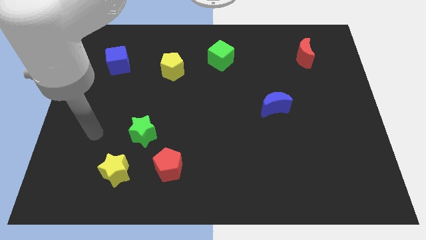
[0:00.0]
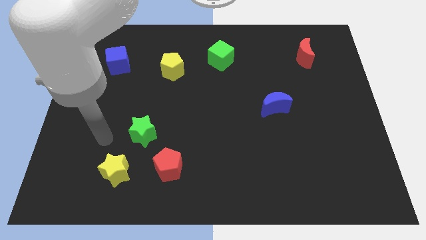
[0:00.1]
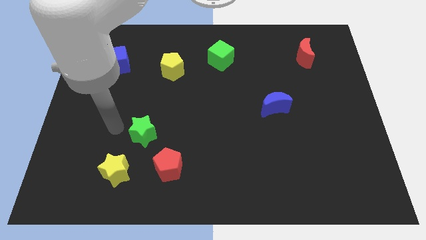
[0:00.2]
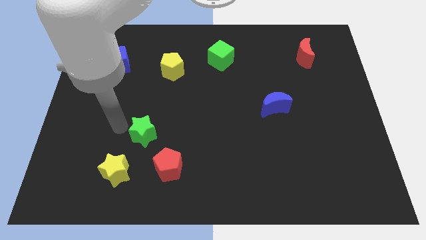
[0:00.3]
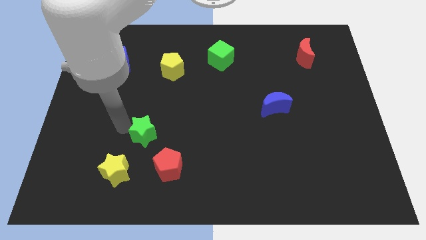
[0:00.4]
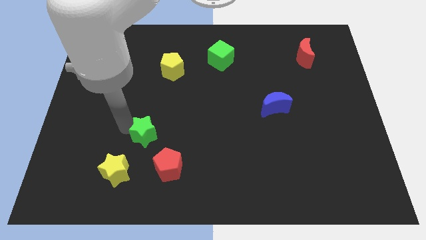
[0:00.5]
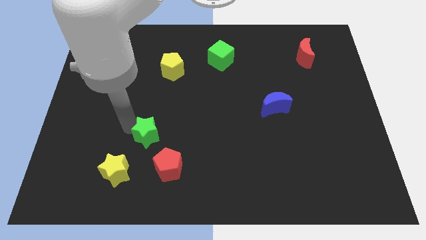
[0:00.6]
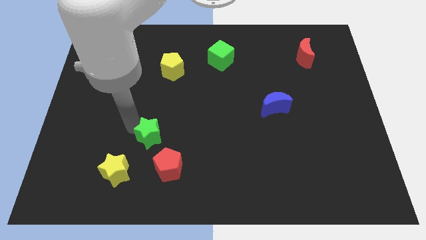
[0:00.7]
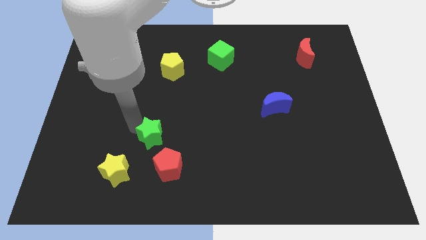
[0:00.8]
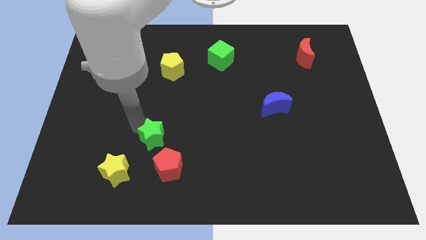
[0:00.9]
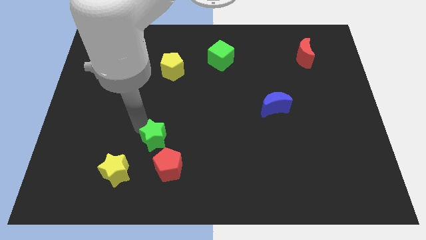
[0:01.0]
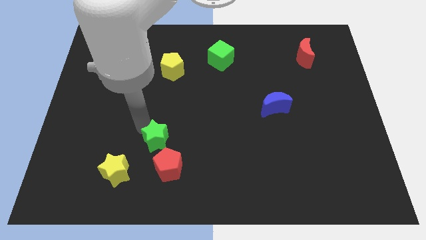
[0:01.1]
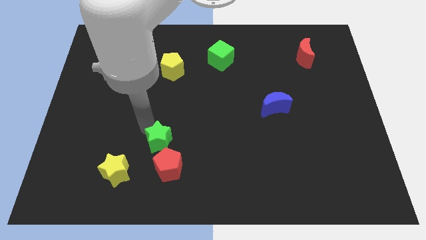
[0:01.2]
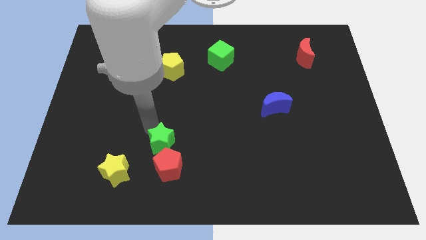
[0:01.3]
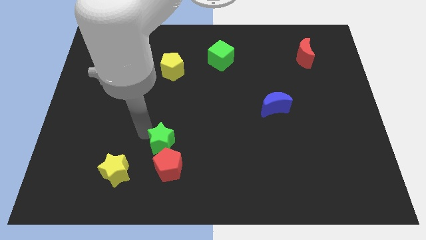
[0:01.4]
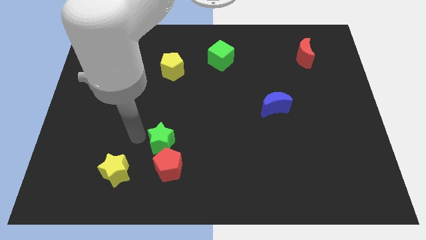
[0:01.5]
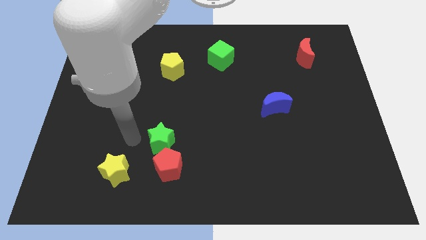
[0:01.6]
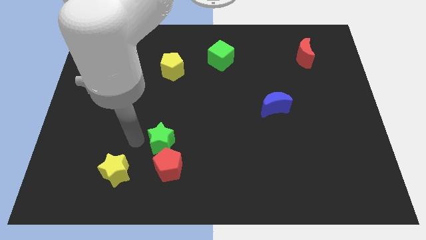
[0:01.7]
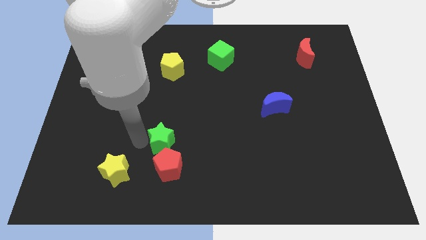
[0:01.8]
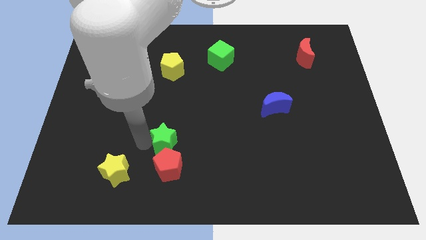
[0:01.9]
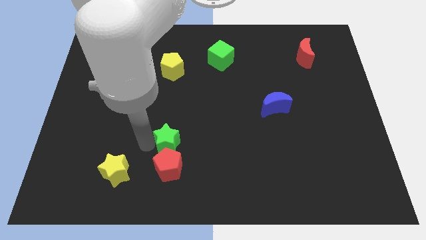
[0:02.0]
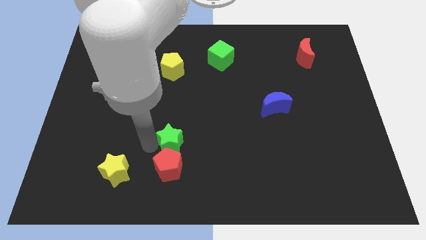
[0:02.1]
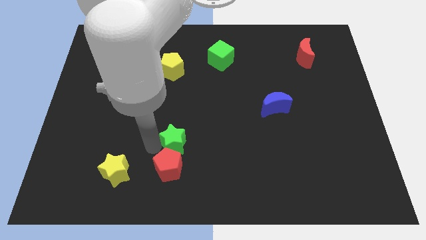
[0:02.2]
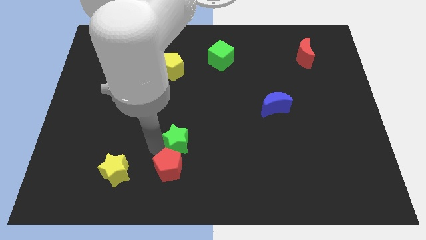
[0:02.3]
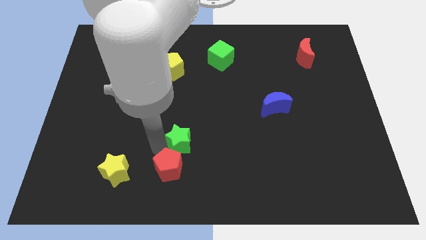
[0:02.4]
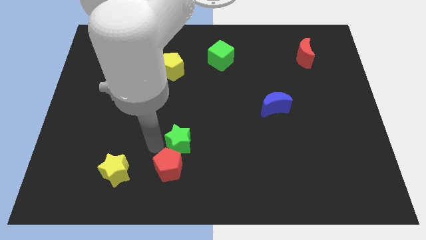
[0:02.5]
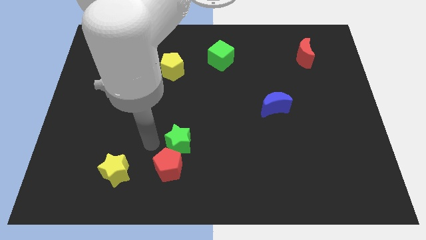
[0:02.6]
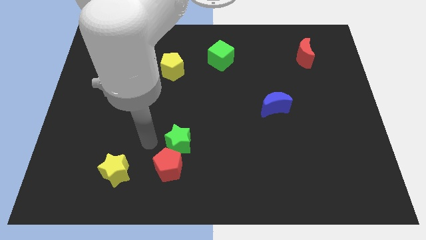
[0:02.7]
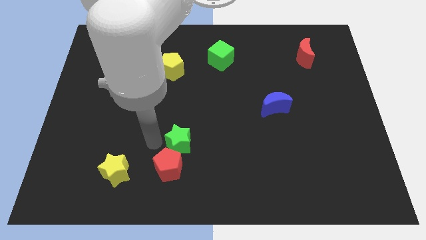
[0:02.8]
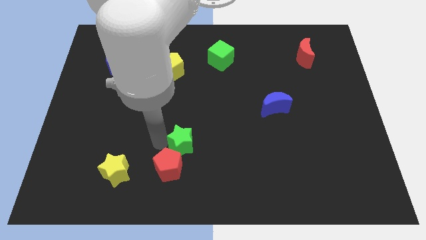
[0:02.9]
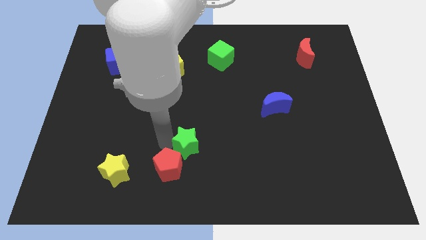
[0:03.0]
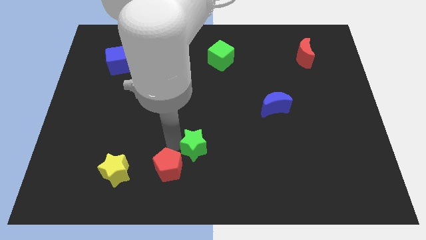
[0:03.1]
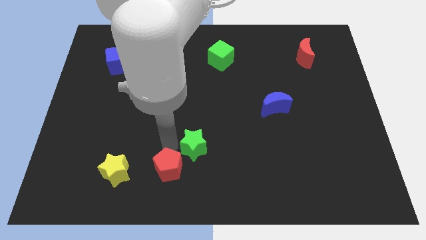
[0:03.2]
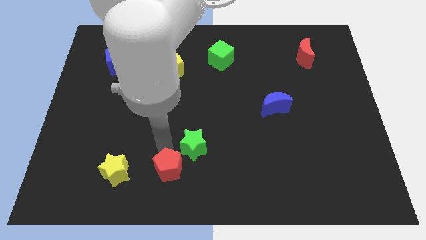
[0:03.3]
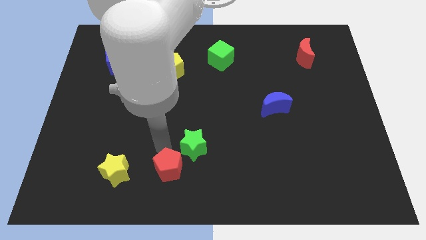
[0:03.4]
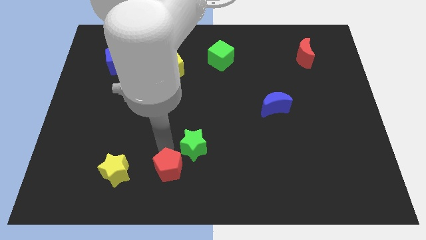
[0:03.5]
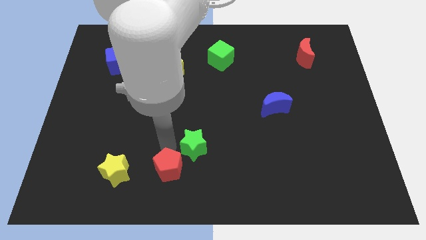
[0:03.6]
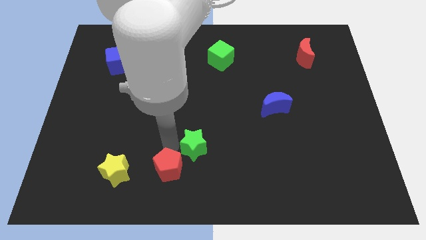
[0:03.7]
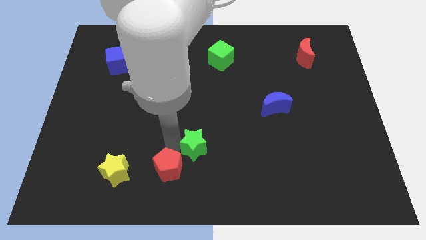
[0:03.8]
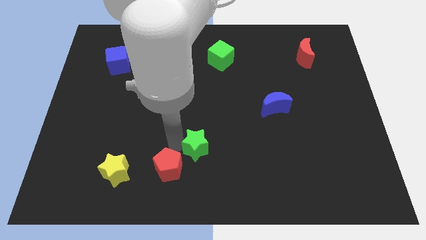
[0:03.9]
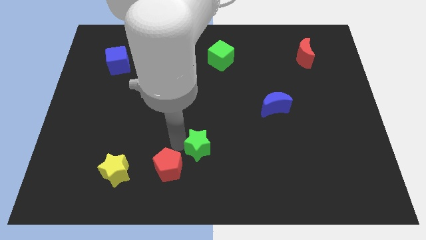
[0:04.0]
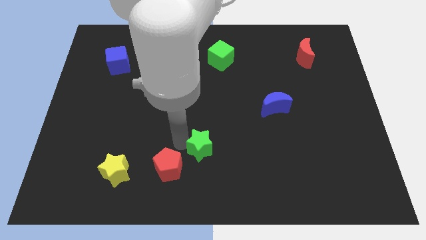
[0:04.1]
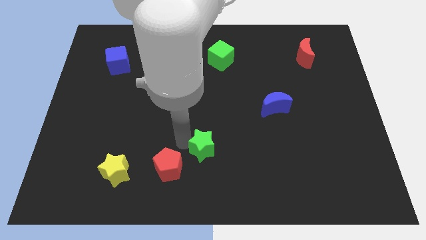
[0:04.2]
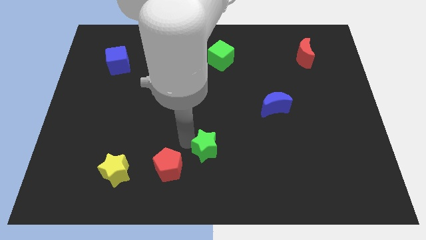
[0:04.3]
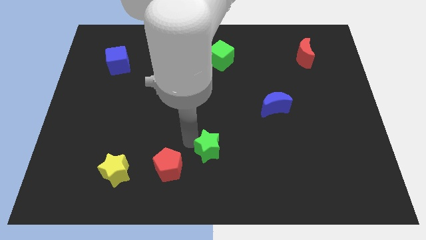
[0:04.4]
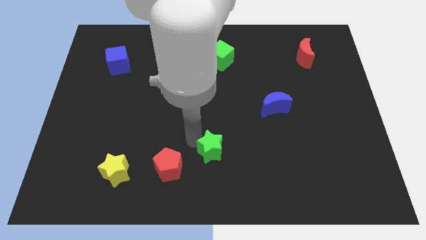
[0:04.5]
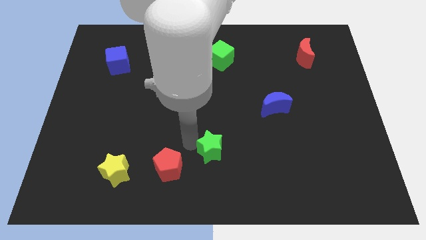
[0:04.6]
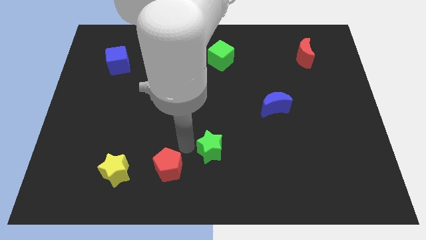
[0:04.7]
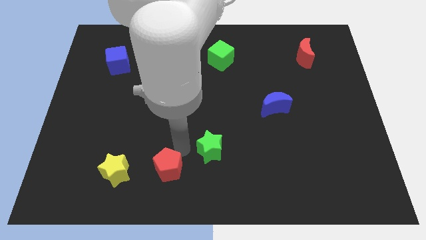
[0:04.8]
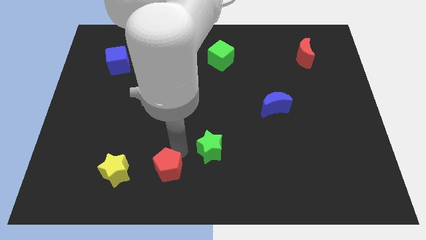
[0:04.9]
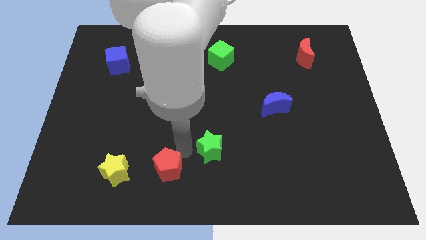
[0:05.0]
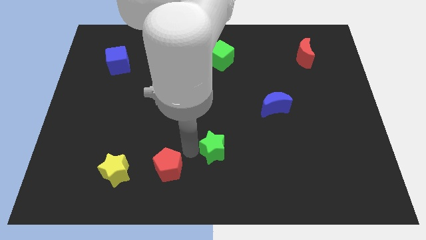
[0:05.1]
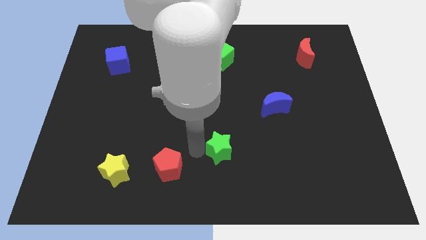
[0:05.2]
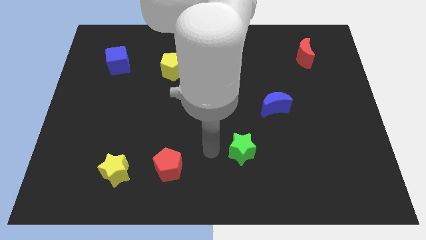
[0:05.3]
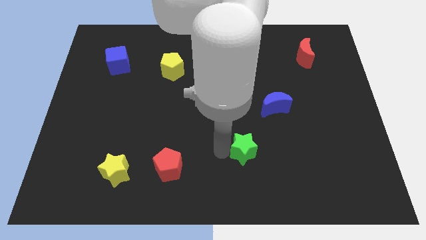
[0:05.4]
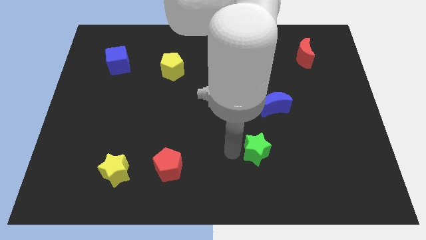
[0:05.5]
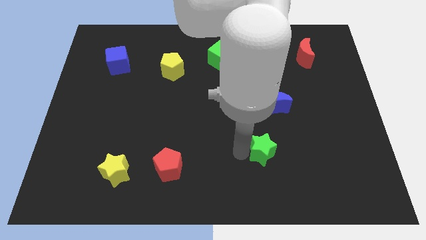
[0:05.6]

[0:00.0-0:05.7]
put the green star to the bottom side of the blue moon

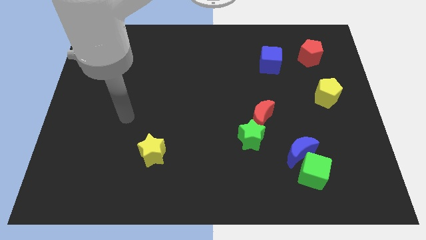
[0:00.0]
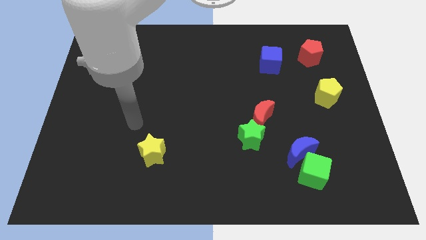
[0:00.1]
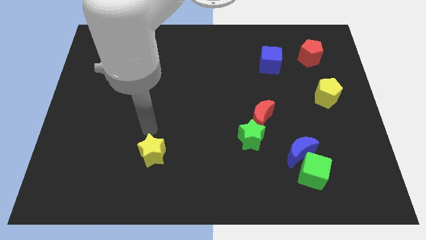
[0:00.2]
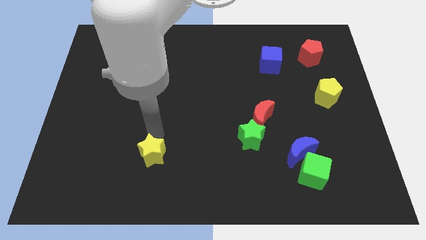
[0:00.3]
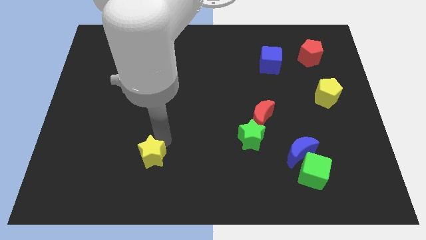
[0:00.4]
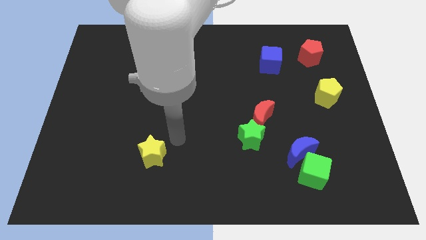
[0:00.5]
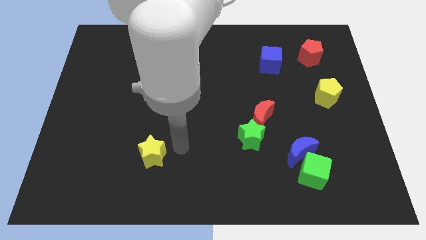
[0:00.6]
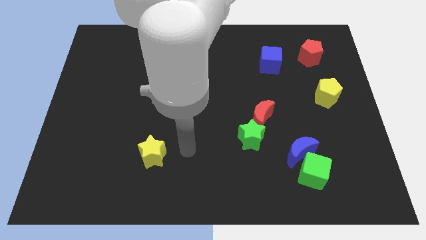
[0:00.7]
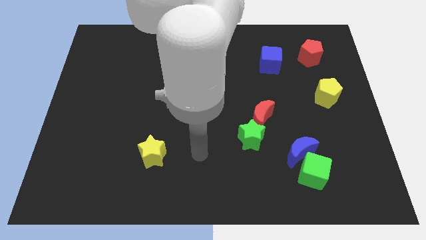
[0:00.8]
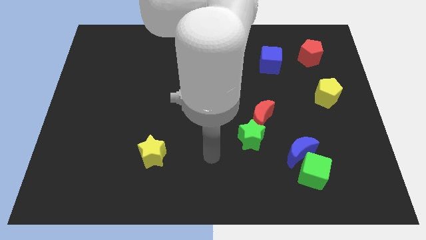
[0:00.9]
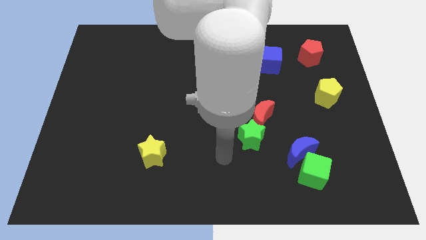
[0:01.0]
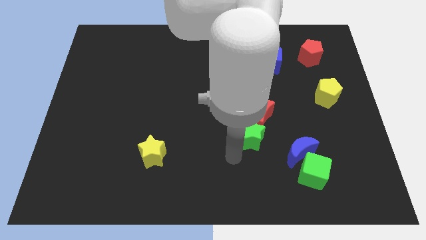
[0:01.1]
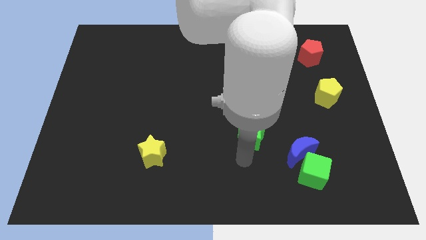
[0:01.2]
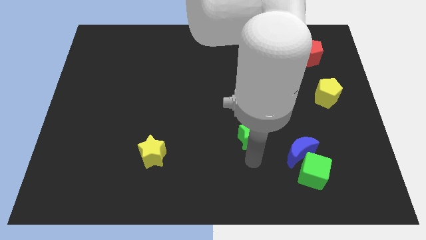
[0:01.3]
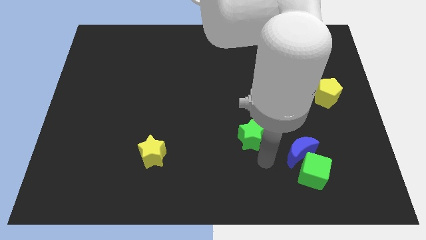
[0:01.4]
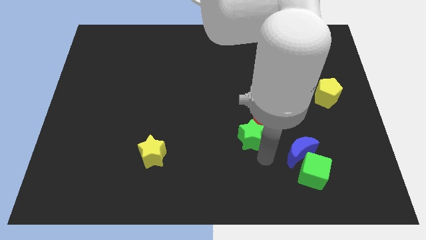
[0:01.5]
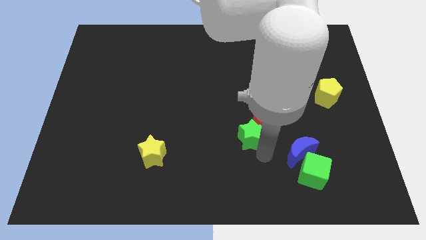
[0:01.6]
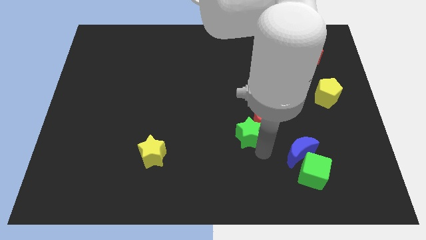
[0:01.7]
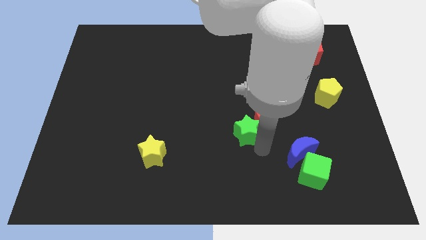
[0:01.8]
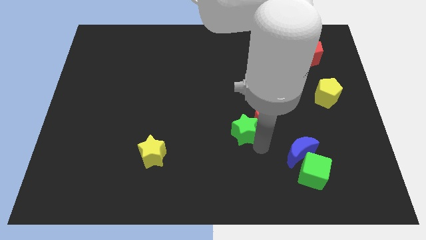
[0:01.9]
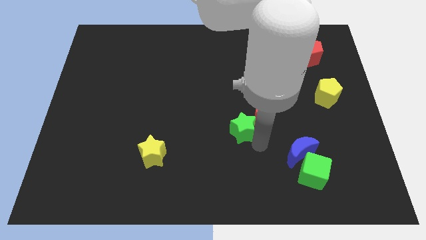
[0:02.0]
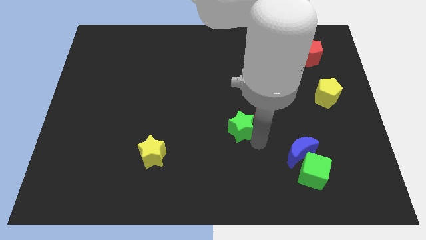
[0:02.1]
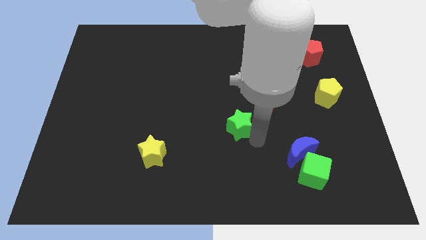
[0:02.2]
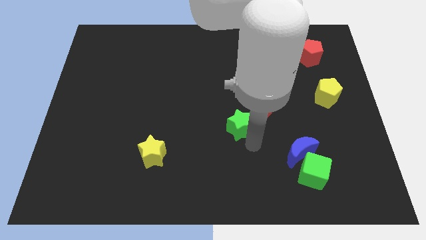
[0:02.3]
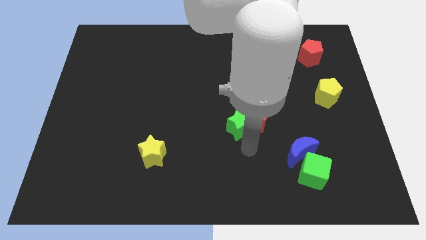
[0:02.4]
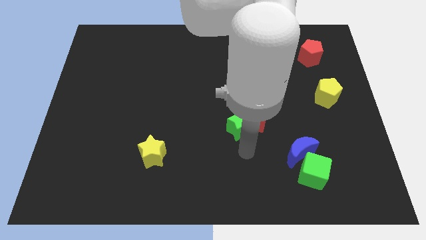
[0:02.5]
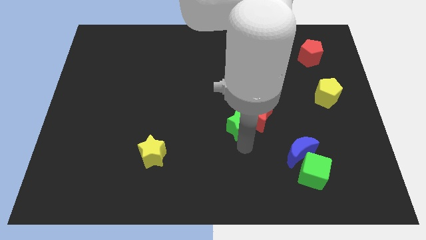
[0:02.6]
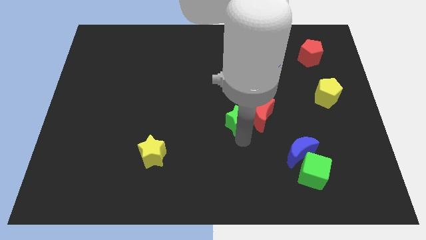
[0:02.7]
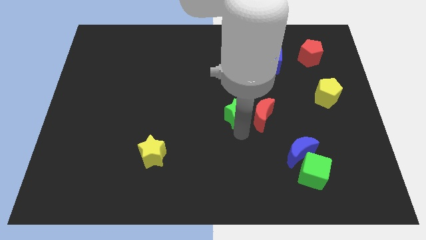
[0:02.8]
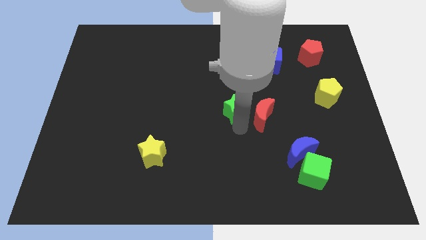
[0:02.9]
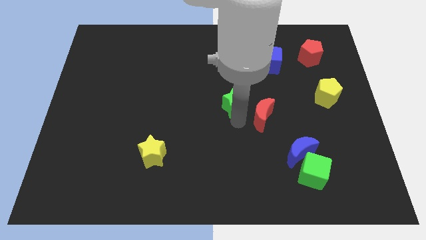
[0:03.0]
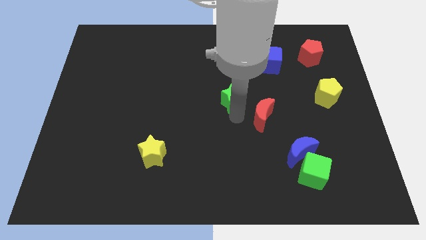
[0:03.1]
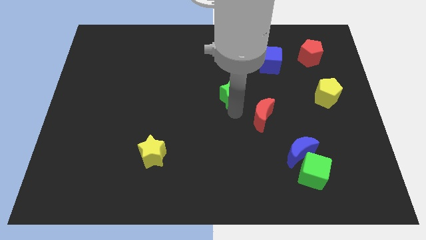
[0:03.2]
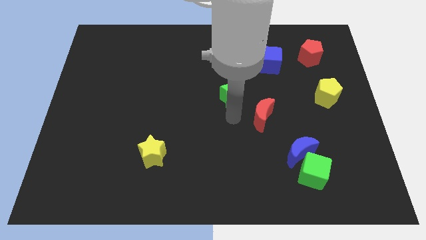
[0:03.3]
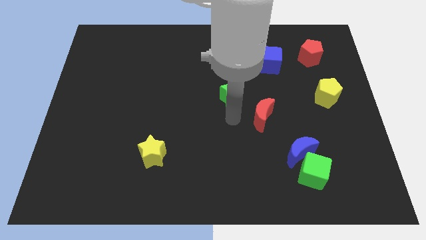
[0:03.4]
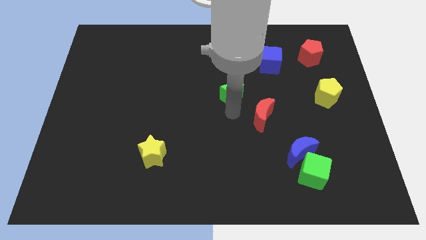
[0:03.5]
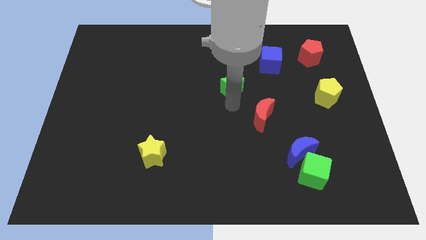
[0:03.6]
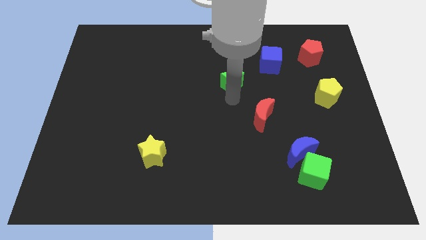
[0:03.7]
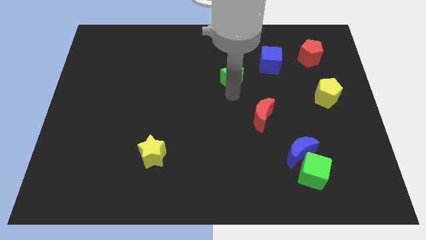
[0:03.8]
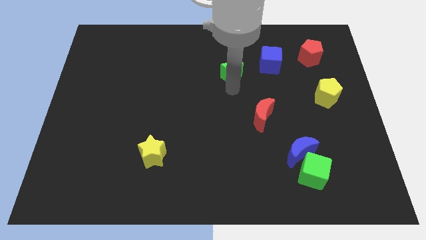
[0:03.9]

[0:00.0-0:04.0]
put the green star just left of the blue cube
